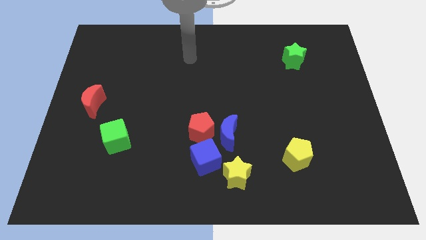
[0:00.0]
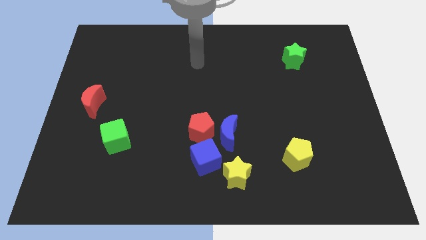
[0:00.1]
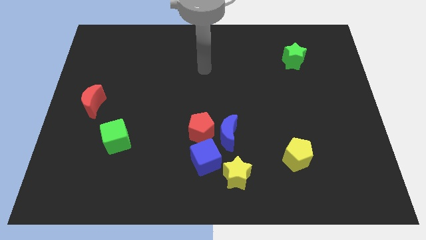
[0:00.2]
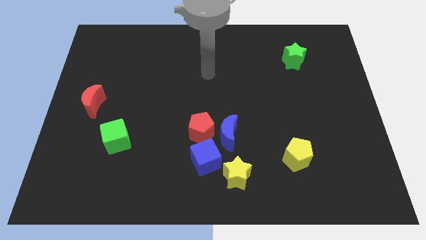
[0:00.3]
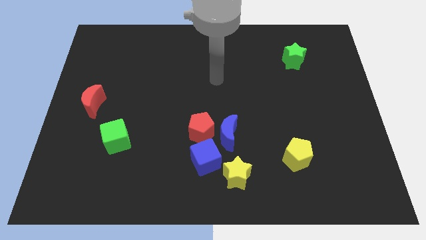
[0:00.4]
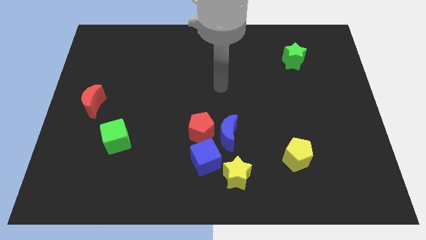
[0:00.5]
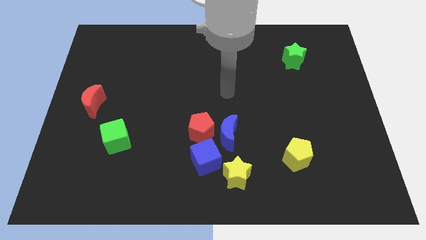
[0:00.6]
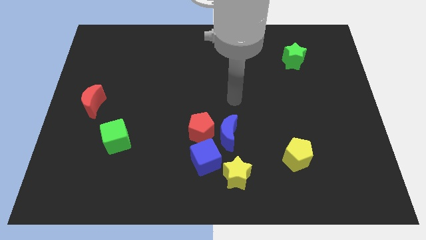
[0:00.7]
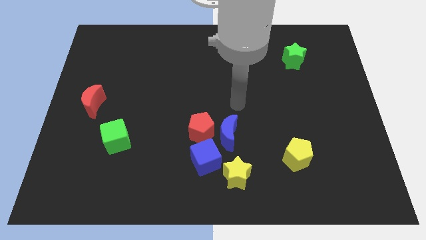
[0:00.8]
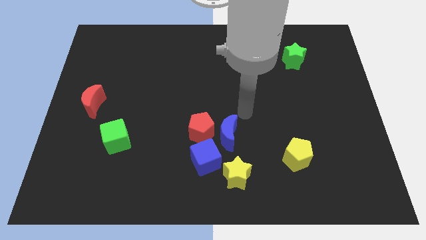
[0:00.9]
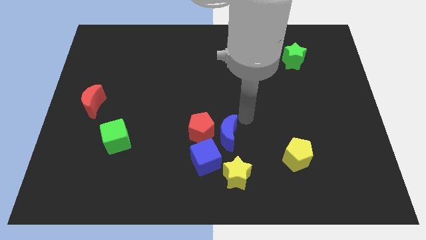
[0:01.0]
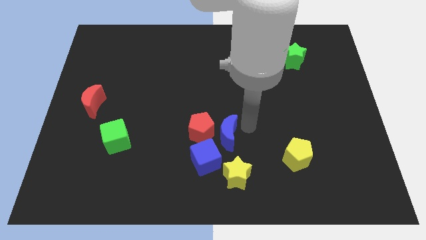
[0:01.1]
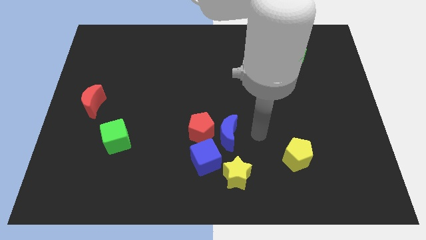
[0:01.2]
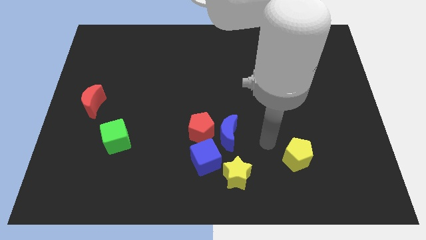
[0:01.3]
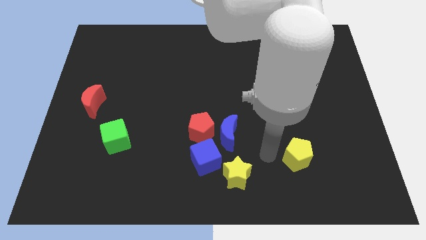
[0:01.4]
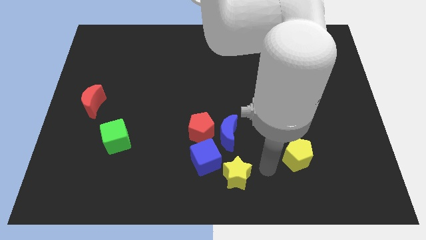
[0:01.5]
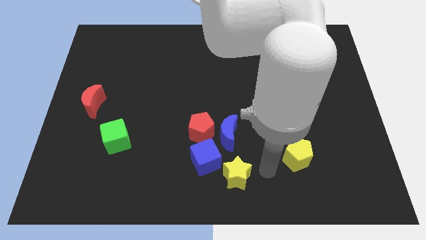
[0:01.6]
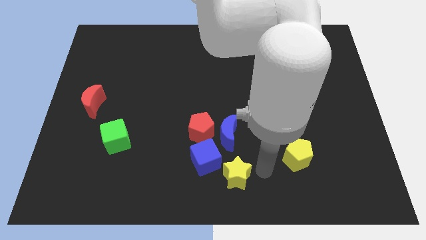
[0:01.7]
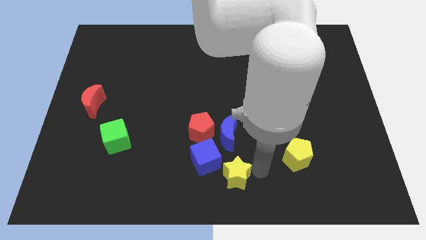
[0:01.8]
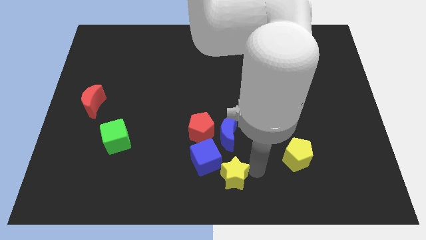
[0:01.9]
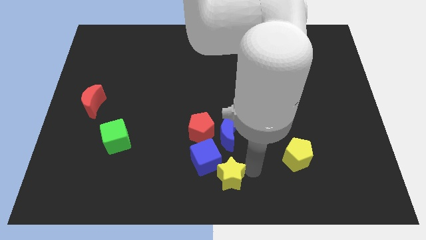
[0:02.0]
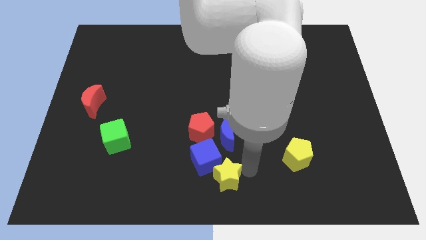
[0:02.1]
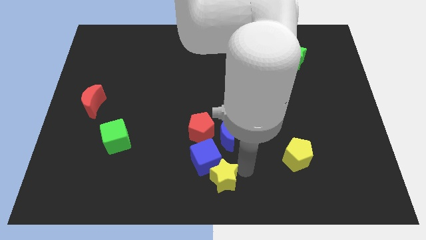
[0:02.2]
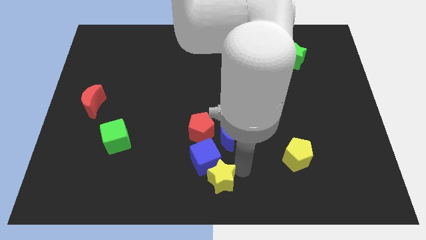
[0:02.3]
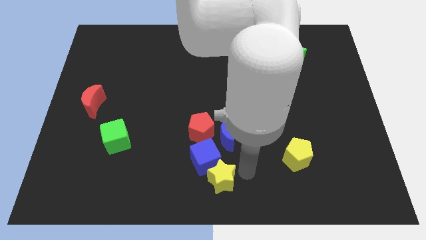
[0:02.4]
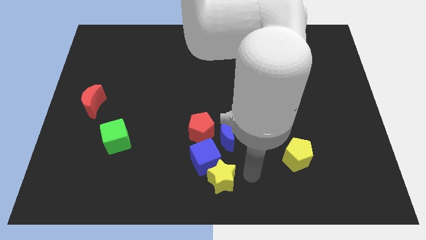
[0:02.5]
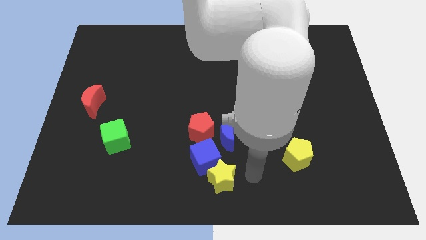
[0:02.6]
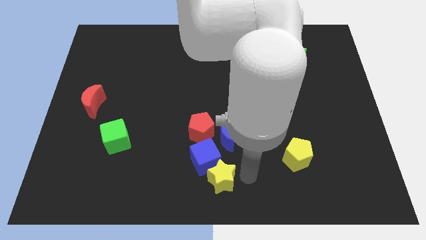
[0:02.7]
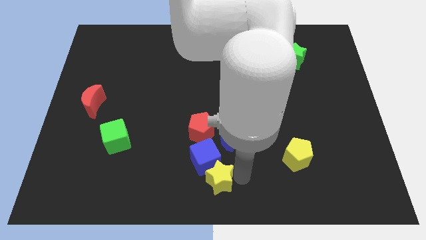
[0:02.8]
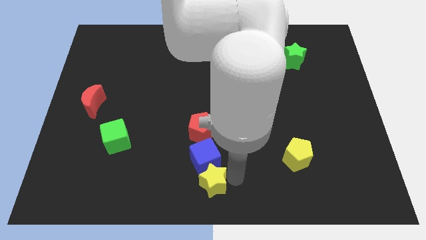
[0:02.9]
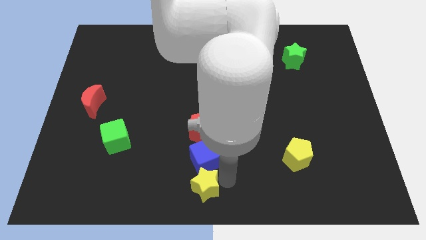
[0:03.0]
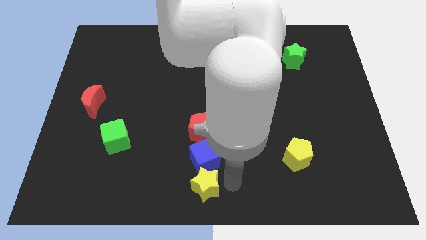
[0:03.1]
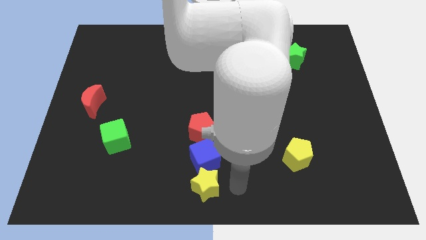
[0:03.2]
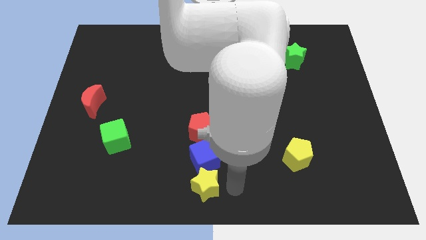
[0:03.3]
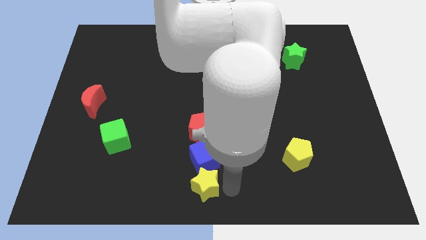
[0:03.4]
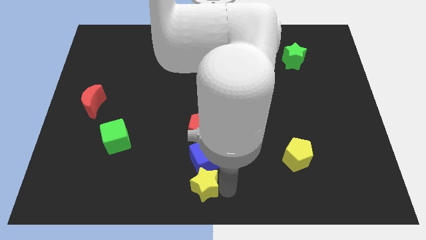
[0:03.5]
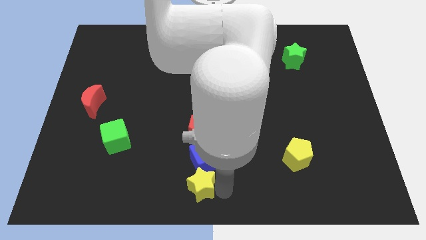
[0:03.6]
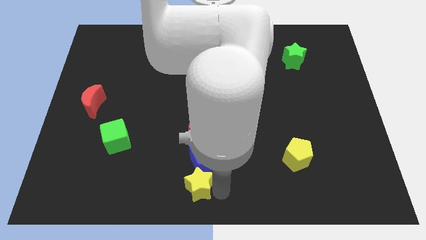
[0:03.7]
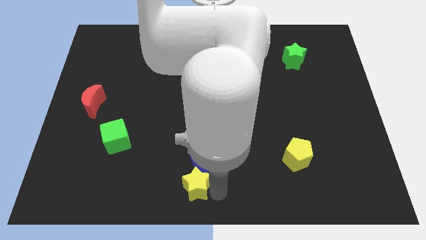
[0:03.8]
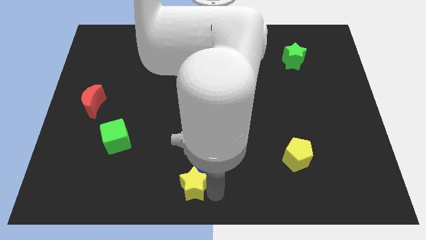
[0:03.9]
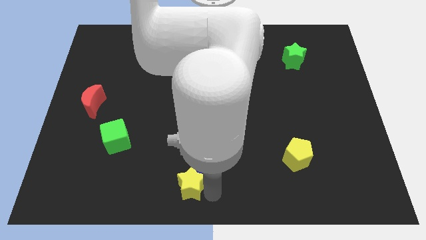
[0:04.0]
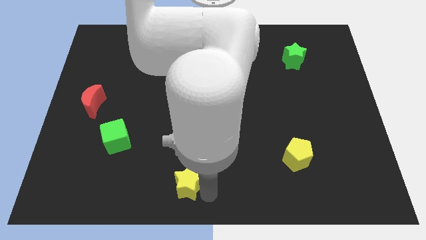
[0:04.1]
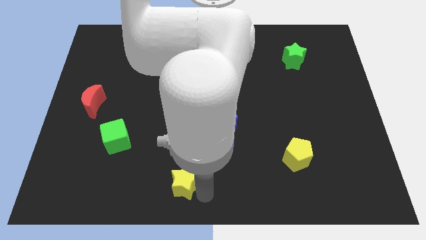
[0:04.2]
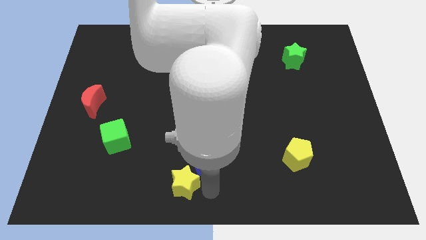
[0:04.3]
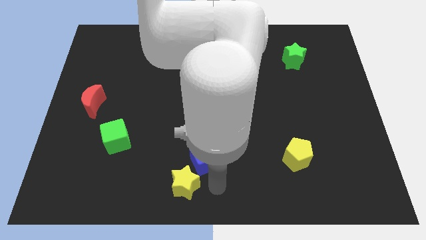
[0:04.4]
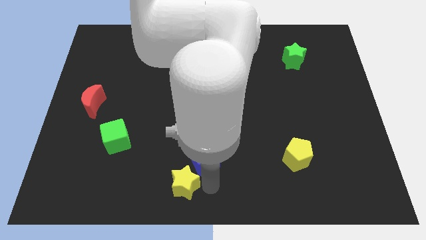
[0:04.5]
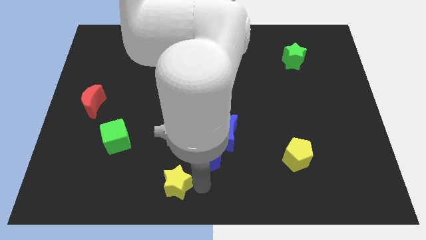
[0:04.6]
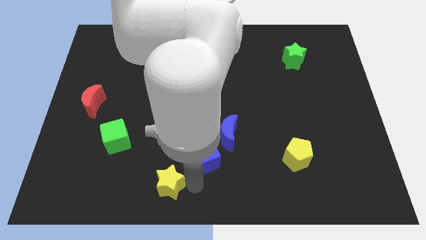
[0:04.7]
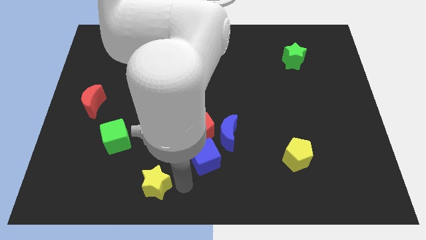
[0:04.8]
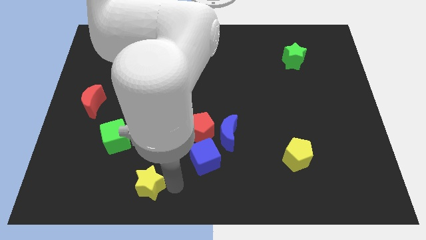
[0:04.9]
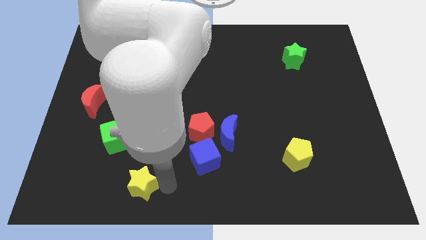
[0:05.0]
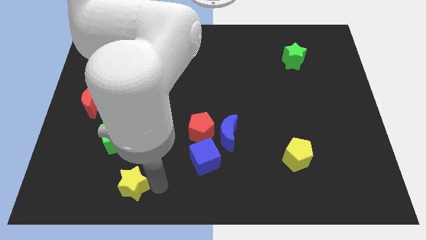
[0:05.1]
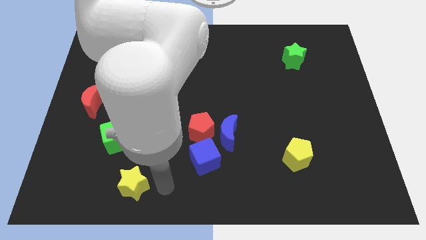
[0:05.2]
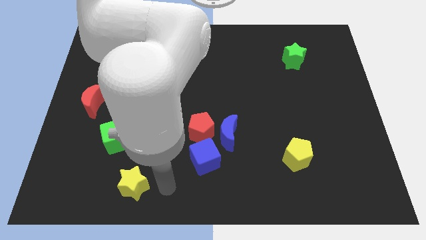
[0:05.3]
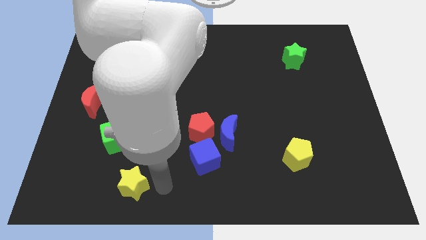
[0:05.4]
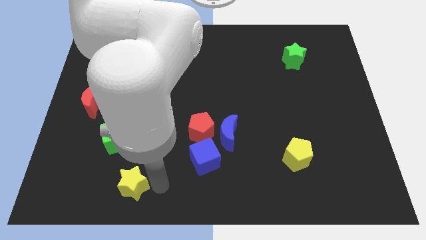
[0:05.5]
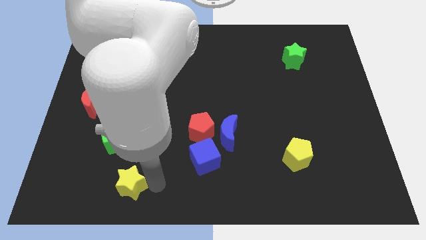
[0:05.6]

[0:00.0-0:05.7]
slide the yellow star below the green cube

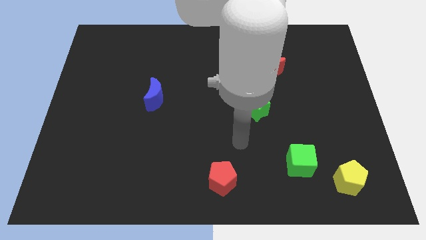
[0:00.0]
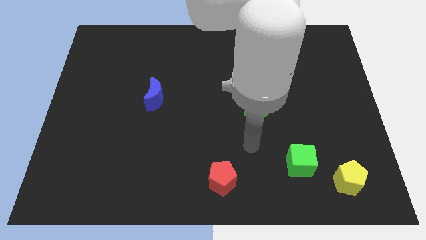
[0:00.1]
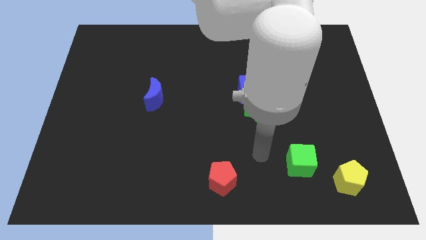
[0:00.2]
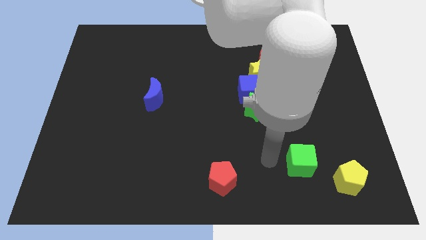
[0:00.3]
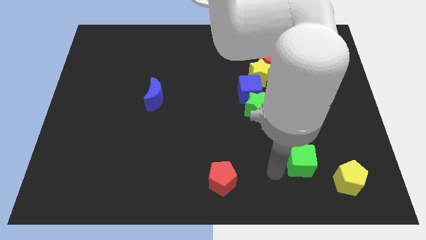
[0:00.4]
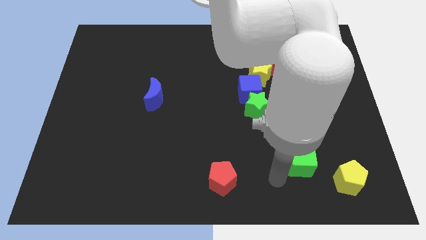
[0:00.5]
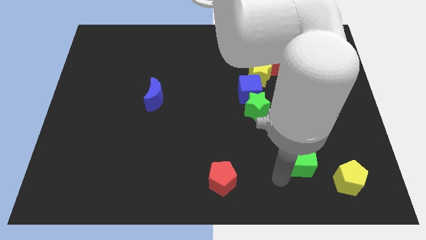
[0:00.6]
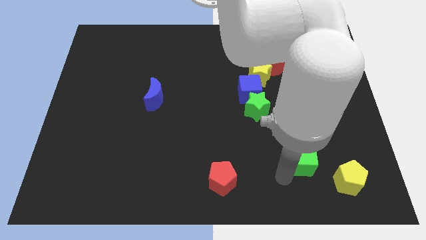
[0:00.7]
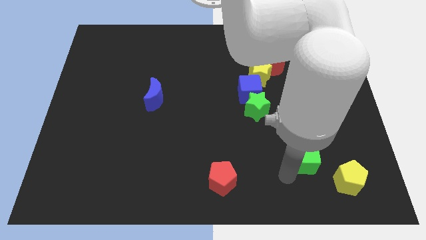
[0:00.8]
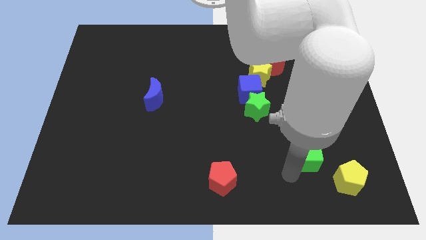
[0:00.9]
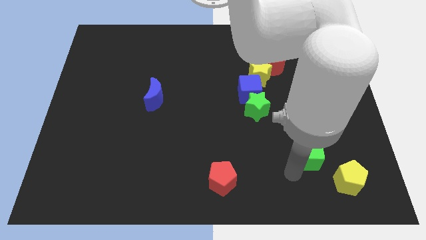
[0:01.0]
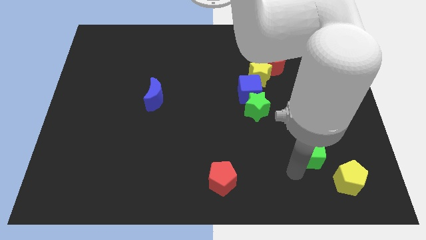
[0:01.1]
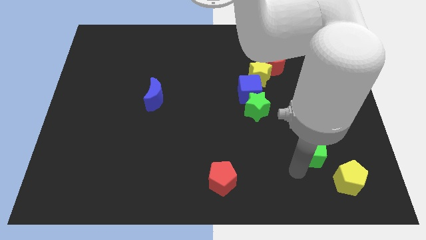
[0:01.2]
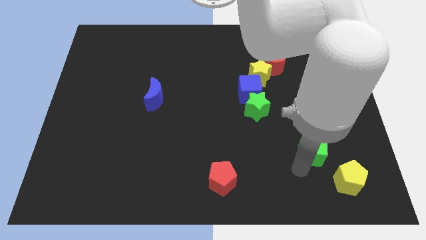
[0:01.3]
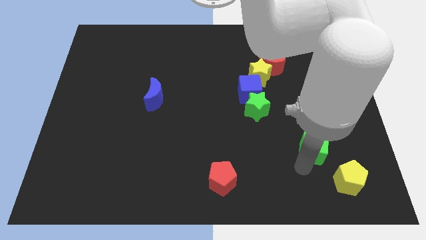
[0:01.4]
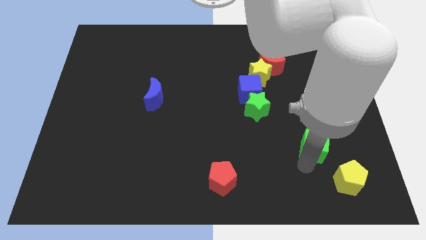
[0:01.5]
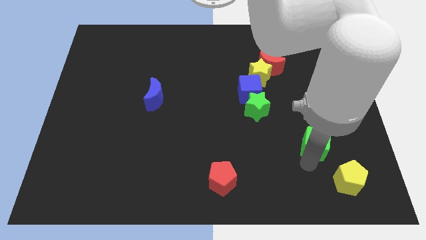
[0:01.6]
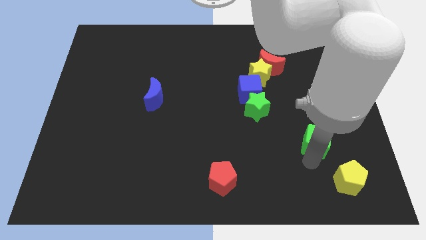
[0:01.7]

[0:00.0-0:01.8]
push the green cube above the yellow pentagon
